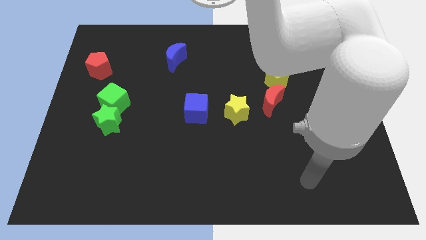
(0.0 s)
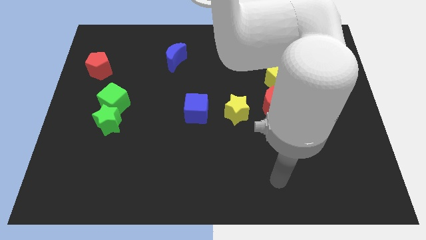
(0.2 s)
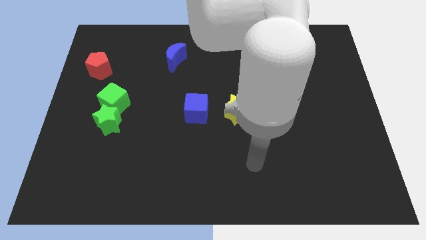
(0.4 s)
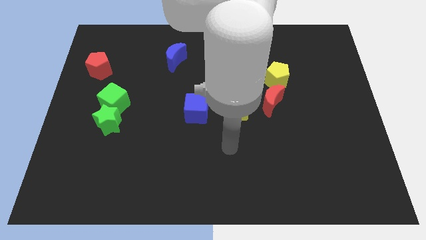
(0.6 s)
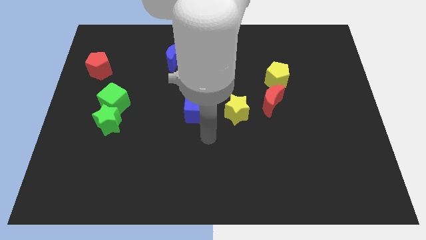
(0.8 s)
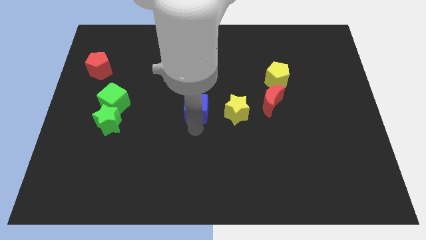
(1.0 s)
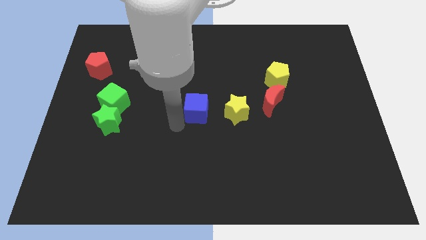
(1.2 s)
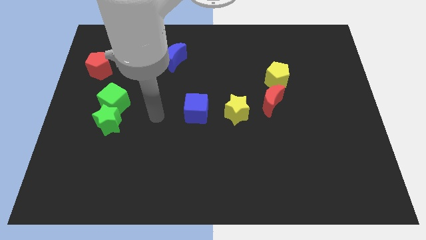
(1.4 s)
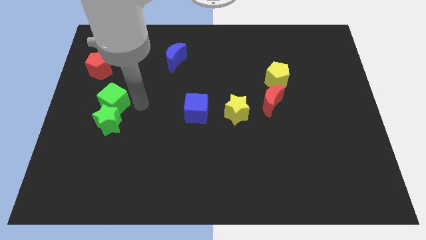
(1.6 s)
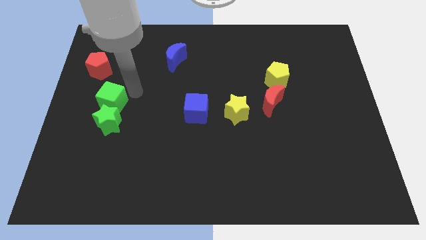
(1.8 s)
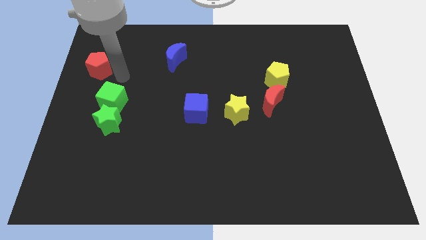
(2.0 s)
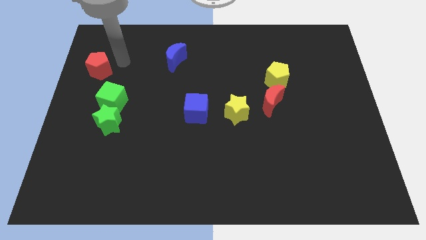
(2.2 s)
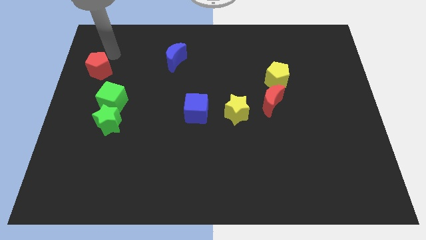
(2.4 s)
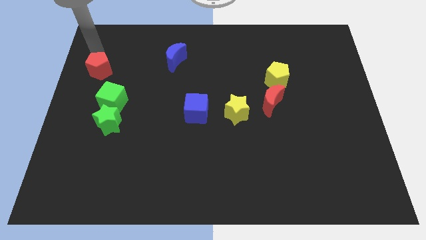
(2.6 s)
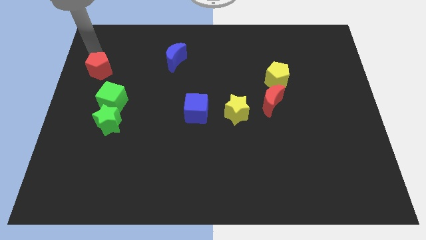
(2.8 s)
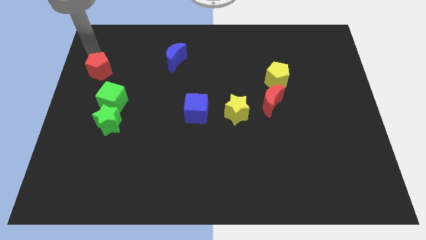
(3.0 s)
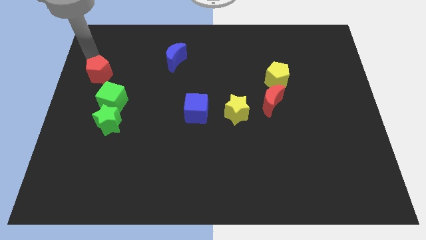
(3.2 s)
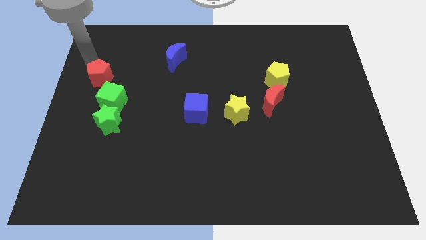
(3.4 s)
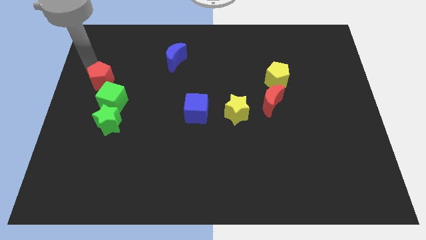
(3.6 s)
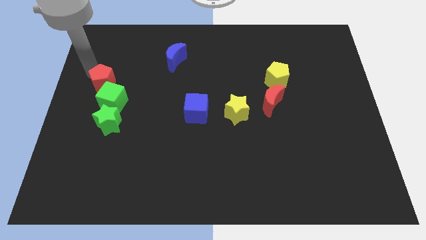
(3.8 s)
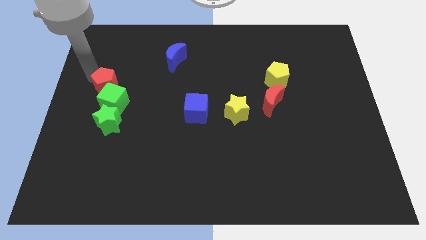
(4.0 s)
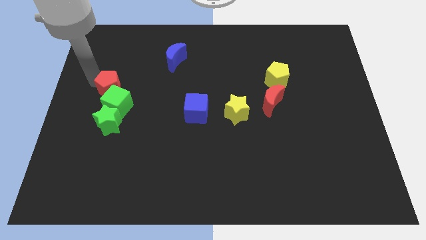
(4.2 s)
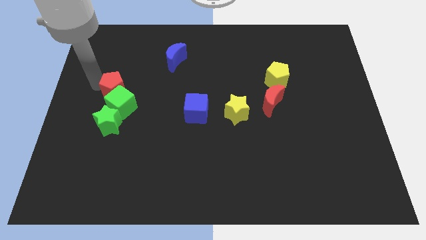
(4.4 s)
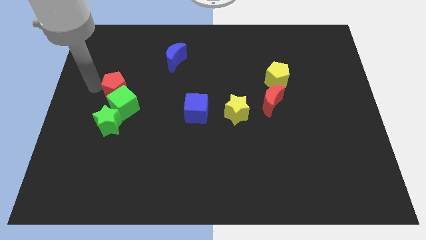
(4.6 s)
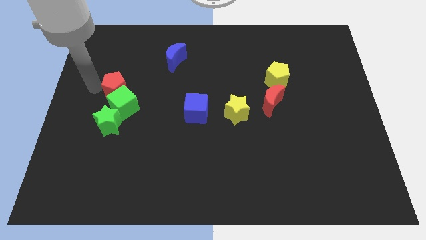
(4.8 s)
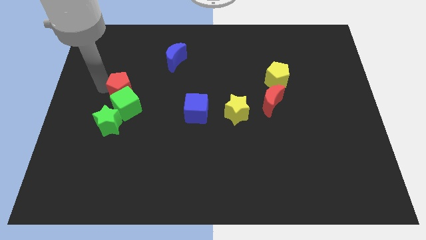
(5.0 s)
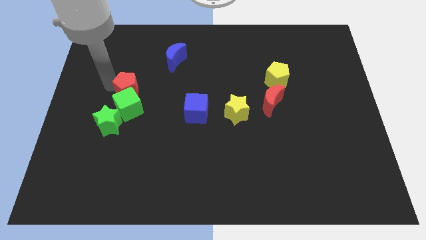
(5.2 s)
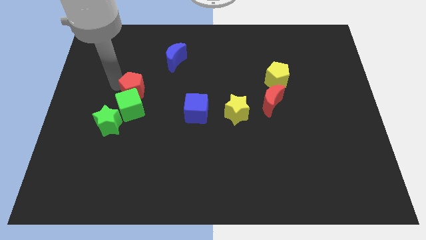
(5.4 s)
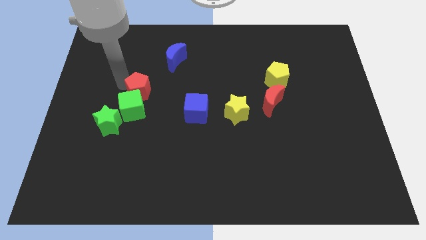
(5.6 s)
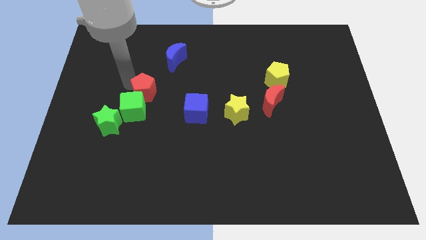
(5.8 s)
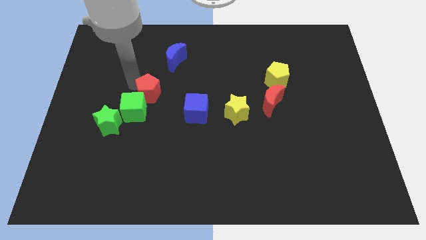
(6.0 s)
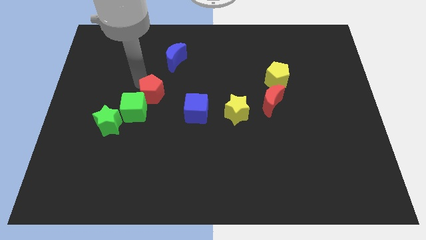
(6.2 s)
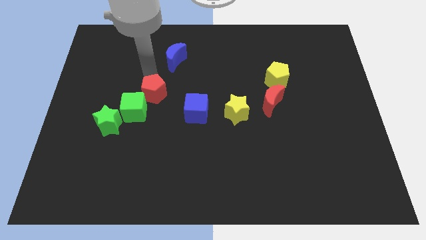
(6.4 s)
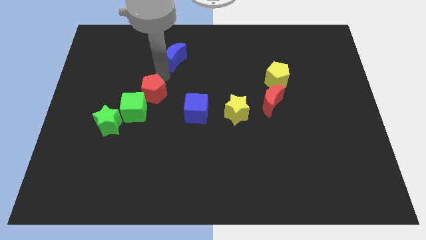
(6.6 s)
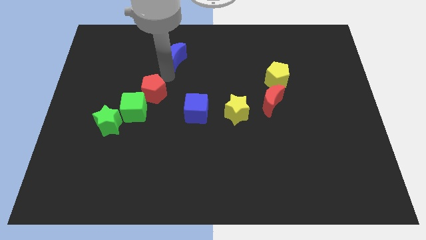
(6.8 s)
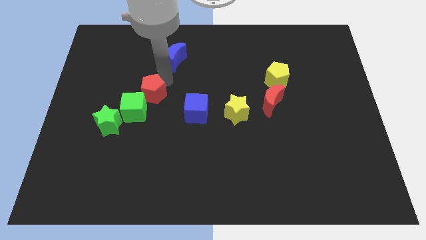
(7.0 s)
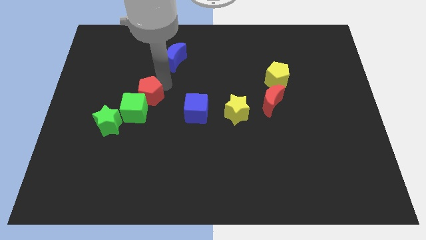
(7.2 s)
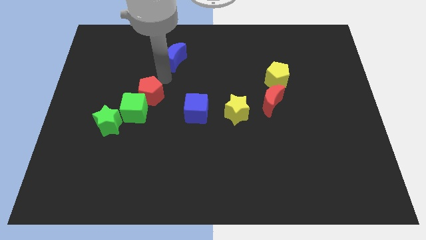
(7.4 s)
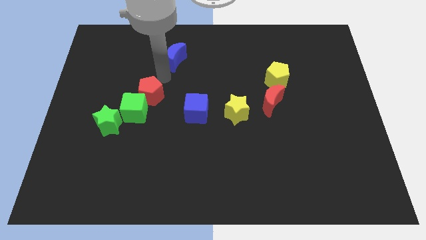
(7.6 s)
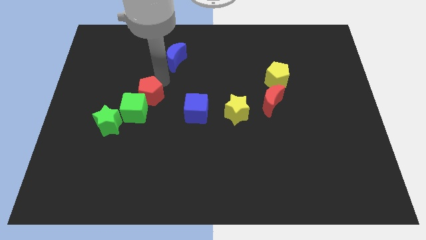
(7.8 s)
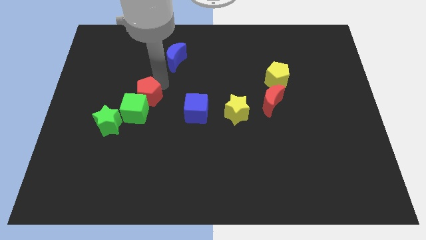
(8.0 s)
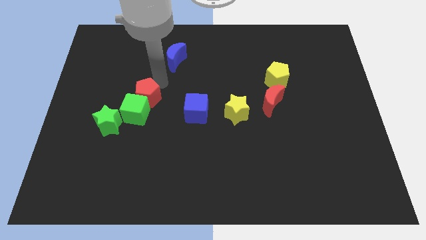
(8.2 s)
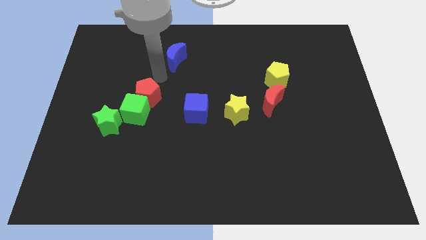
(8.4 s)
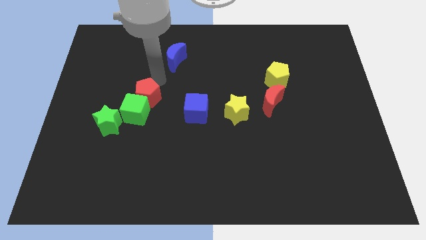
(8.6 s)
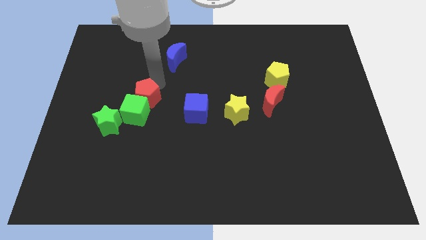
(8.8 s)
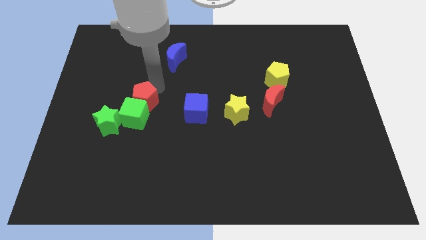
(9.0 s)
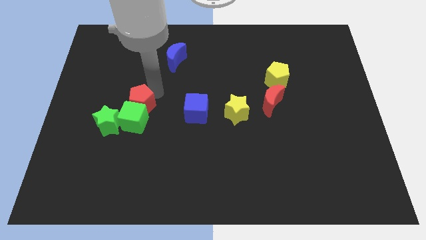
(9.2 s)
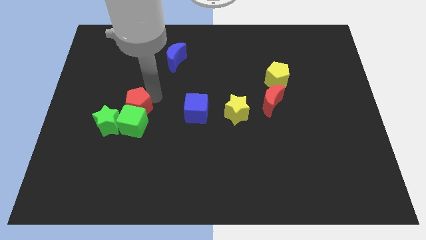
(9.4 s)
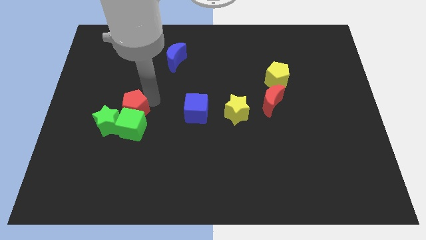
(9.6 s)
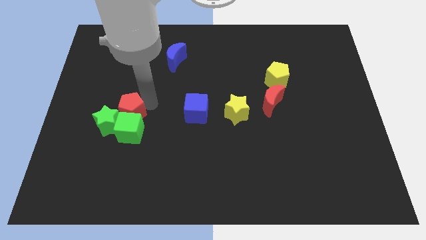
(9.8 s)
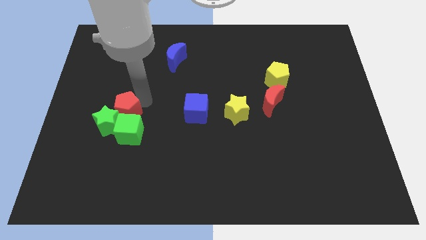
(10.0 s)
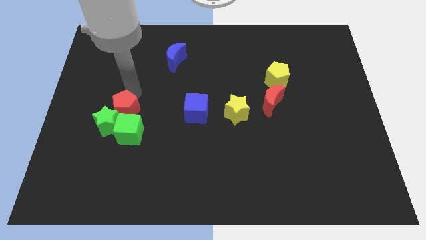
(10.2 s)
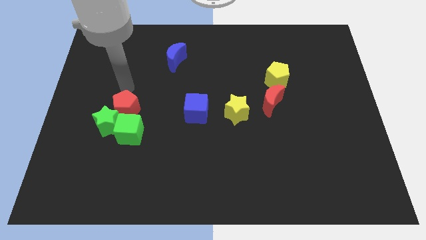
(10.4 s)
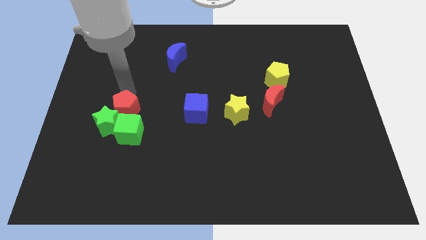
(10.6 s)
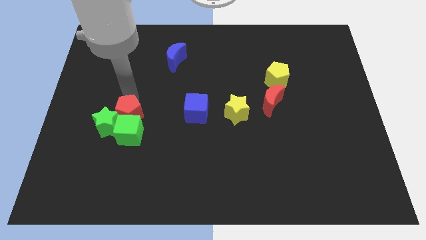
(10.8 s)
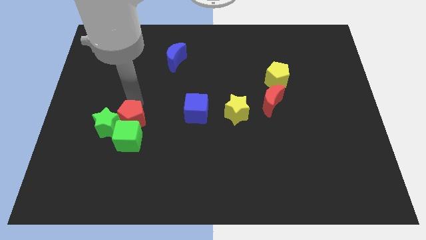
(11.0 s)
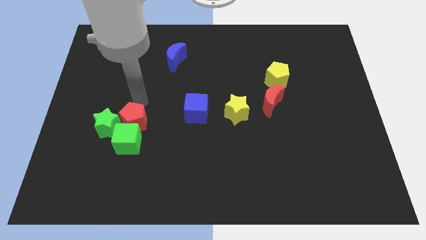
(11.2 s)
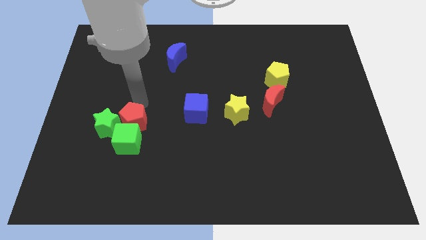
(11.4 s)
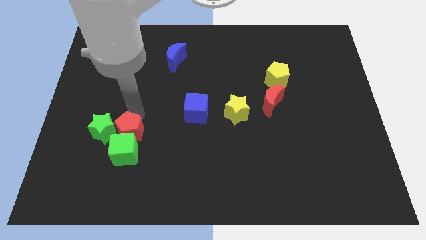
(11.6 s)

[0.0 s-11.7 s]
put the red pentagon diagonally down and to the right of the green star

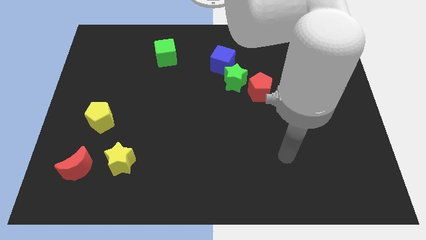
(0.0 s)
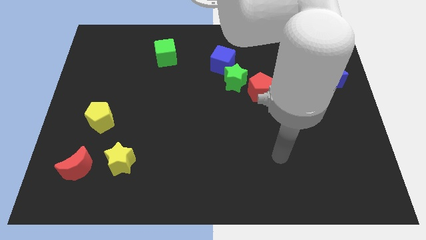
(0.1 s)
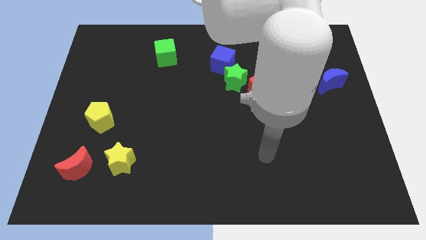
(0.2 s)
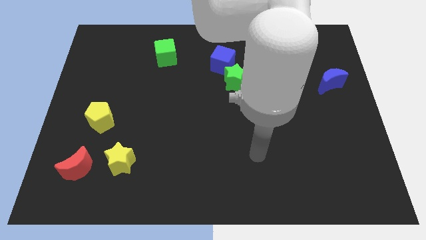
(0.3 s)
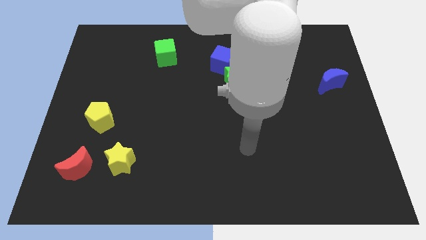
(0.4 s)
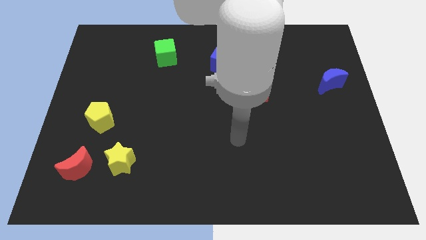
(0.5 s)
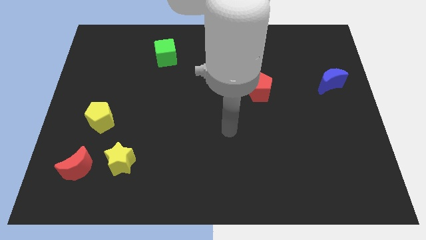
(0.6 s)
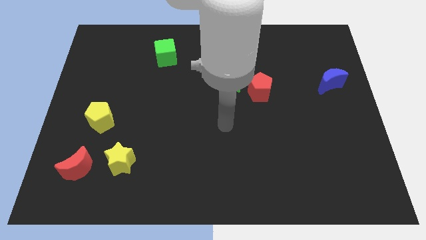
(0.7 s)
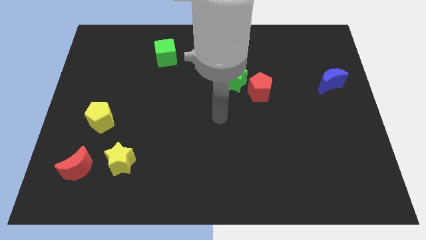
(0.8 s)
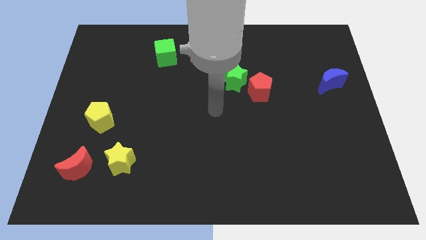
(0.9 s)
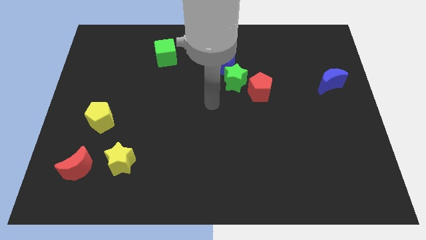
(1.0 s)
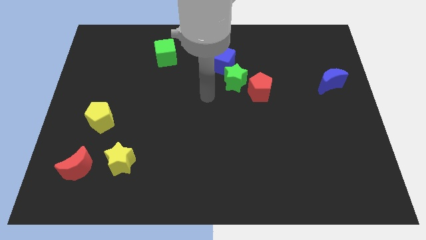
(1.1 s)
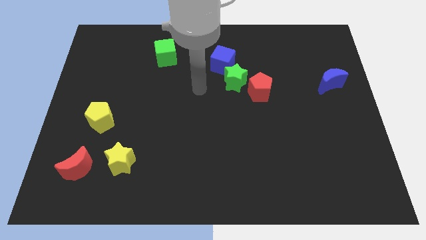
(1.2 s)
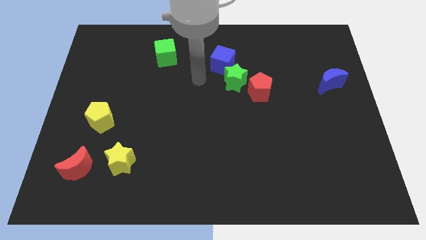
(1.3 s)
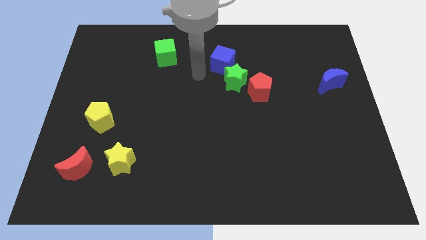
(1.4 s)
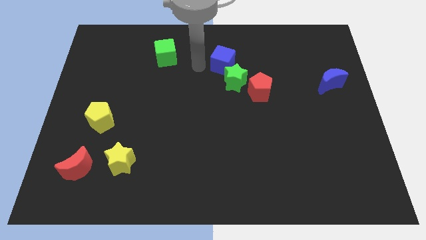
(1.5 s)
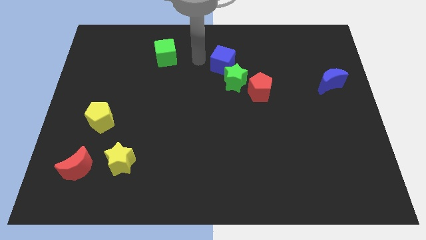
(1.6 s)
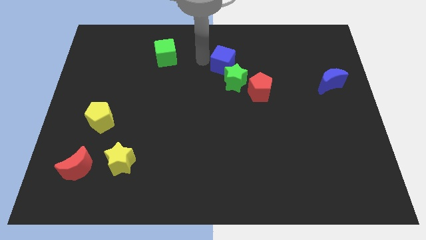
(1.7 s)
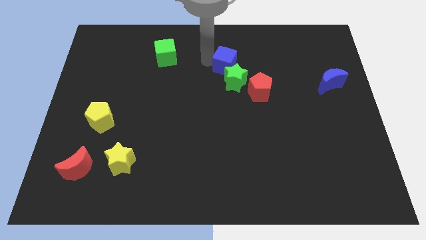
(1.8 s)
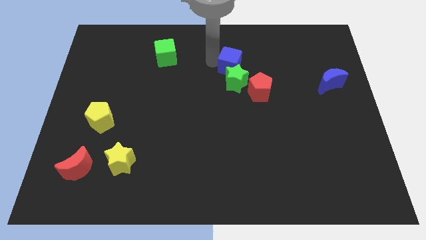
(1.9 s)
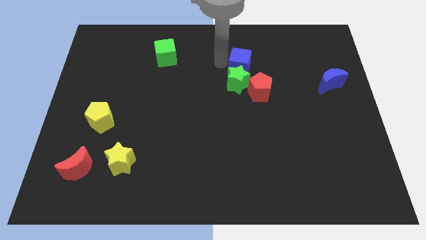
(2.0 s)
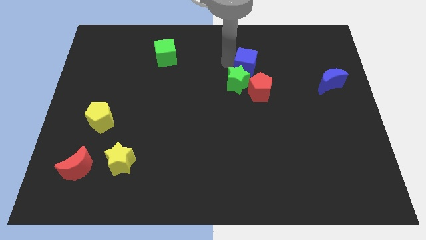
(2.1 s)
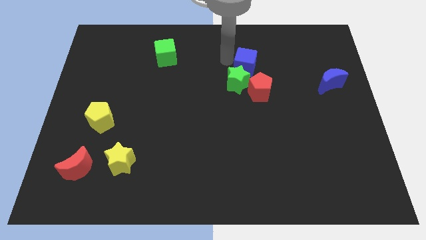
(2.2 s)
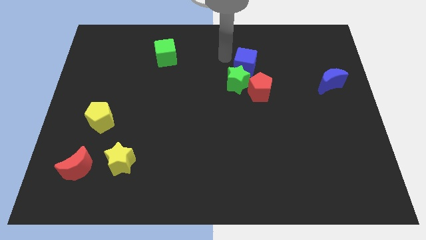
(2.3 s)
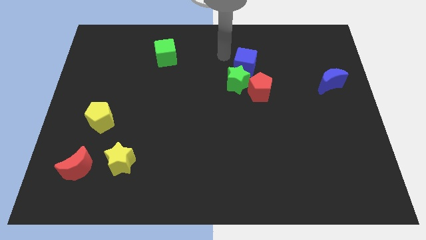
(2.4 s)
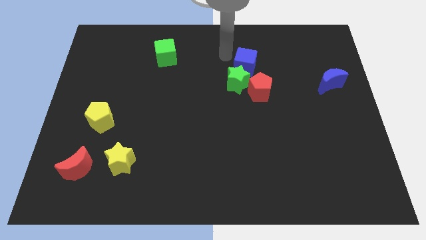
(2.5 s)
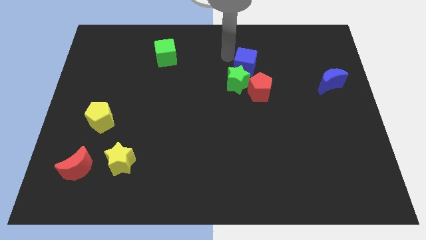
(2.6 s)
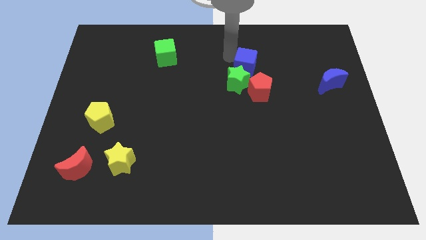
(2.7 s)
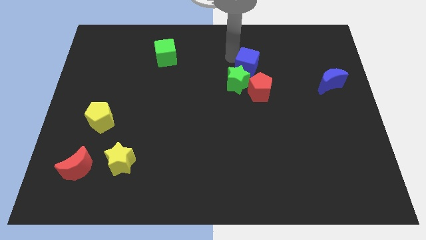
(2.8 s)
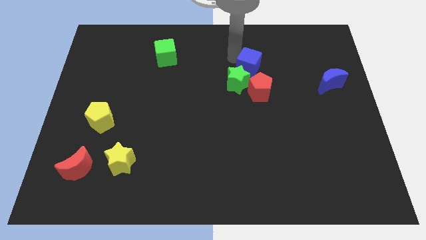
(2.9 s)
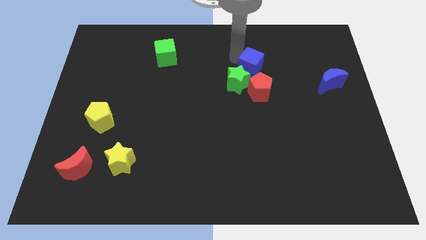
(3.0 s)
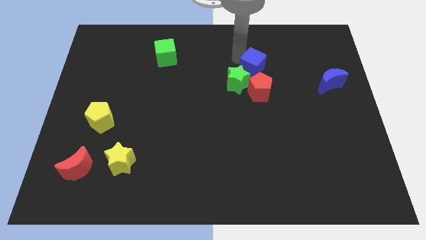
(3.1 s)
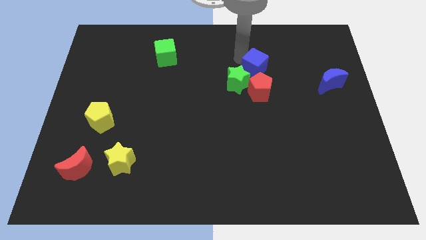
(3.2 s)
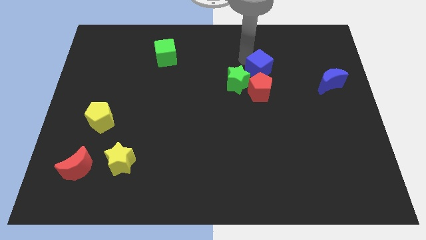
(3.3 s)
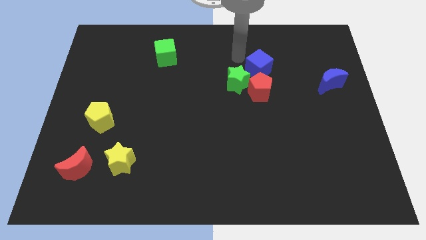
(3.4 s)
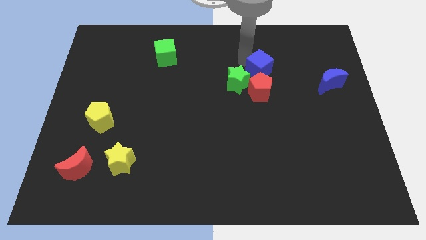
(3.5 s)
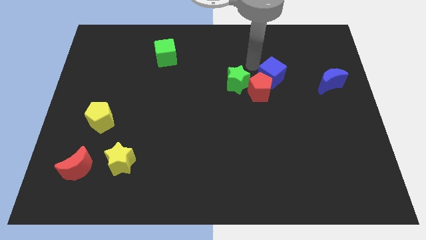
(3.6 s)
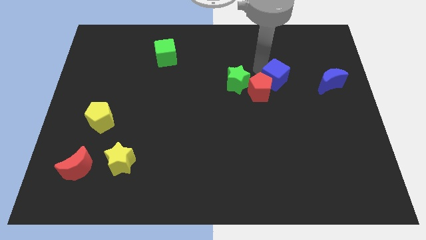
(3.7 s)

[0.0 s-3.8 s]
push the blue cube right of the red pentagon
